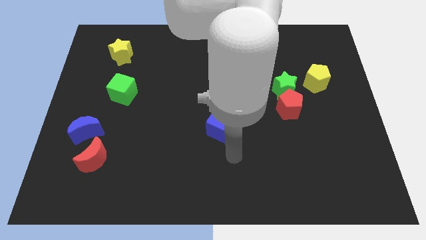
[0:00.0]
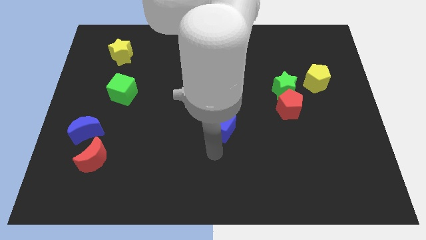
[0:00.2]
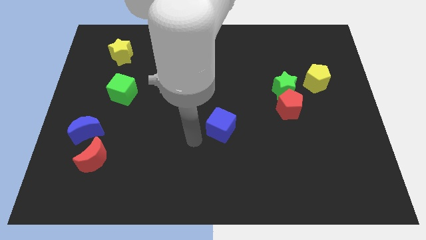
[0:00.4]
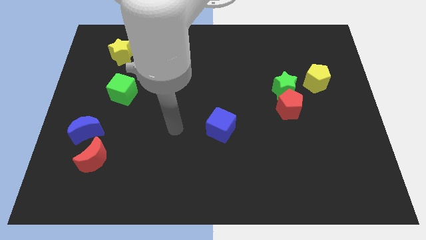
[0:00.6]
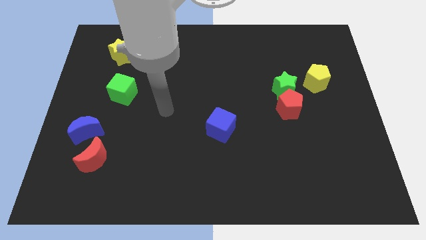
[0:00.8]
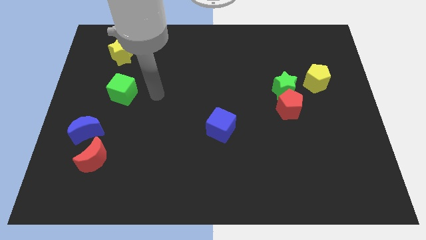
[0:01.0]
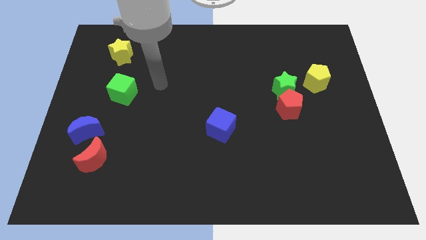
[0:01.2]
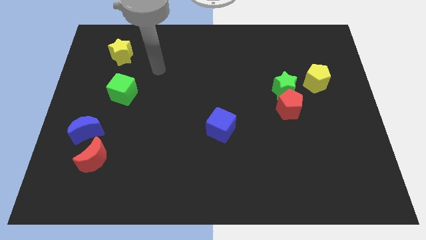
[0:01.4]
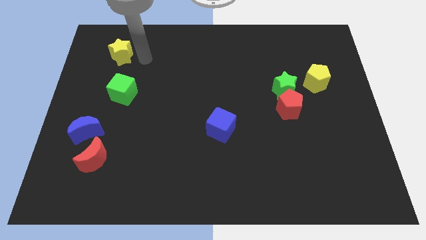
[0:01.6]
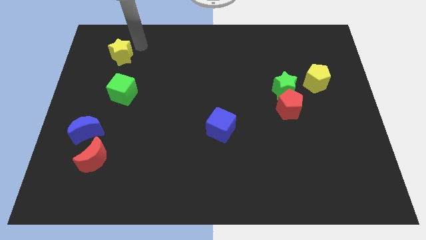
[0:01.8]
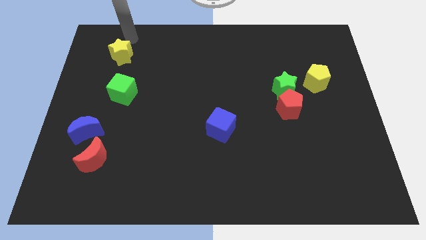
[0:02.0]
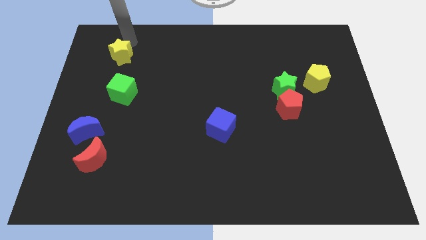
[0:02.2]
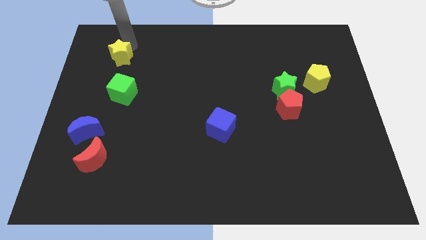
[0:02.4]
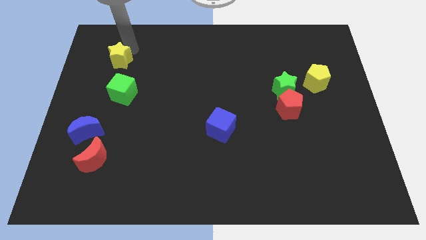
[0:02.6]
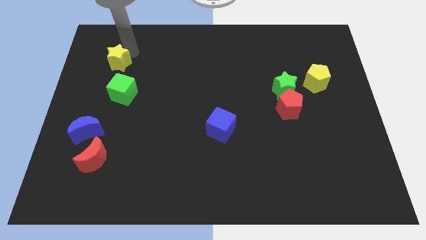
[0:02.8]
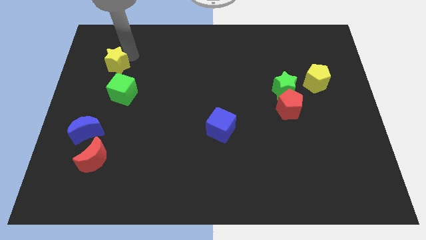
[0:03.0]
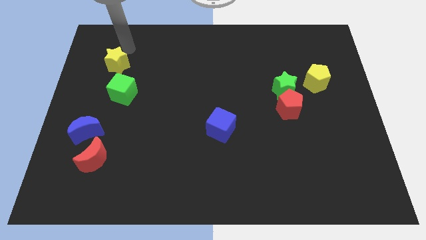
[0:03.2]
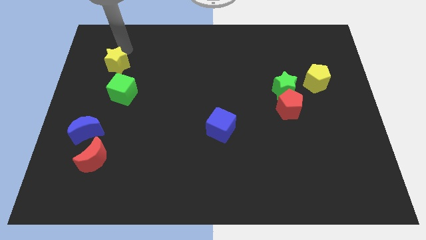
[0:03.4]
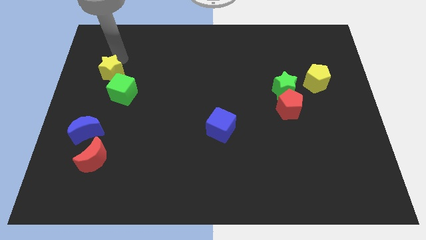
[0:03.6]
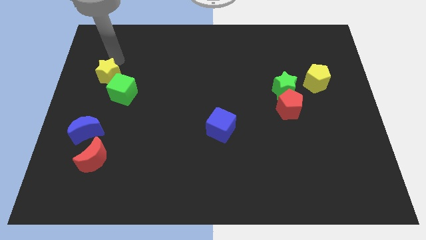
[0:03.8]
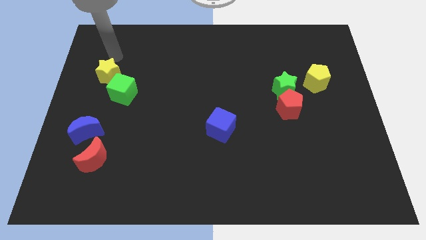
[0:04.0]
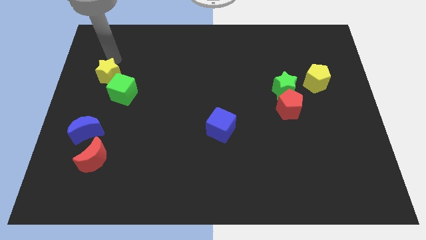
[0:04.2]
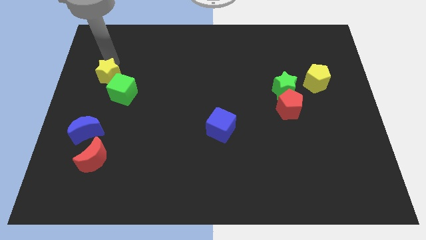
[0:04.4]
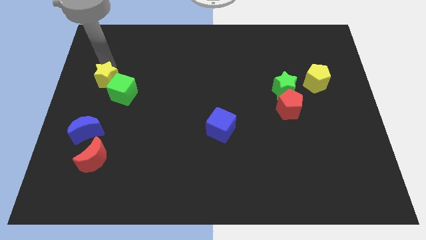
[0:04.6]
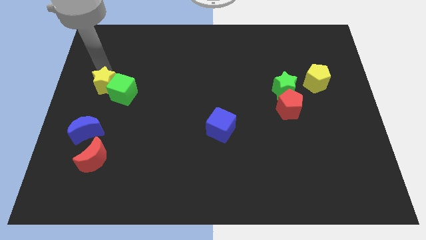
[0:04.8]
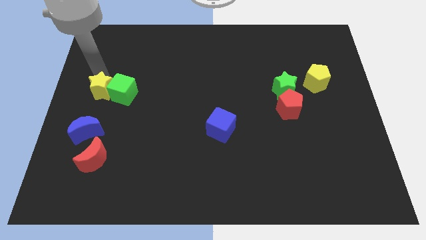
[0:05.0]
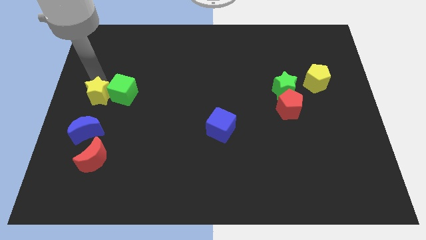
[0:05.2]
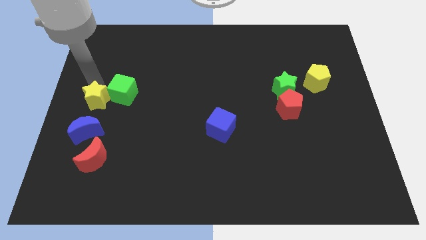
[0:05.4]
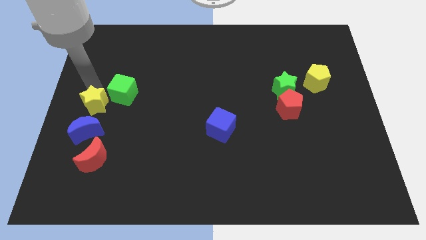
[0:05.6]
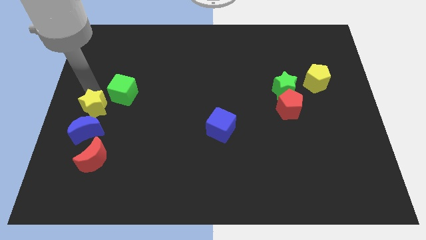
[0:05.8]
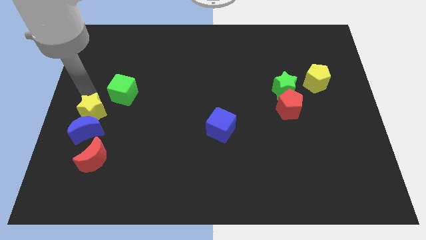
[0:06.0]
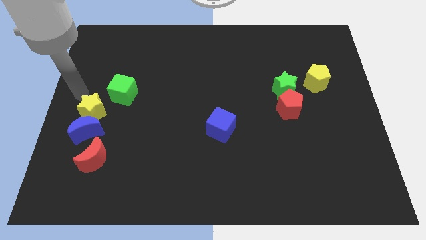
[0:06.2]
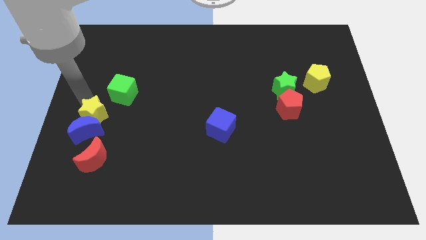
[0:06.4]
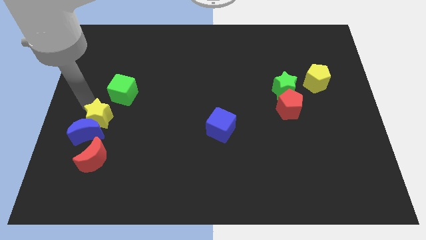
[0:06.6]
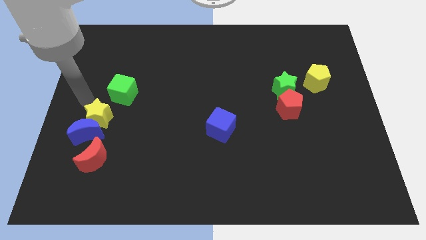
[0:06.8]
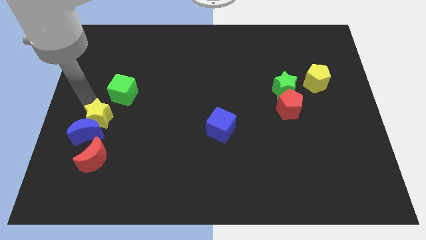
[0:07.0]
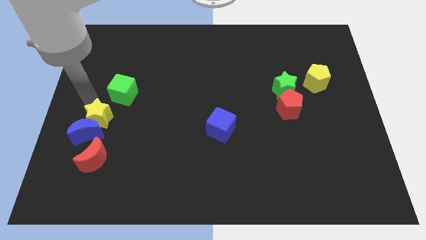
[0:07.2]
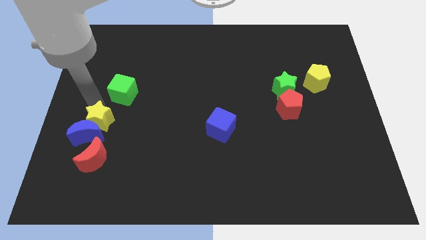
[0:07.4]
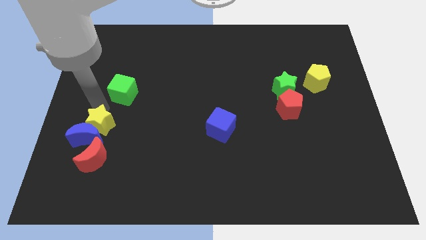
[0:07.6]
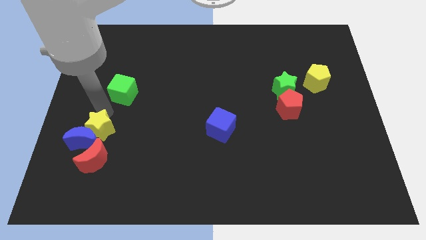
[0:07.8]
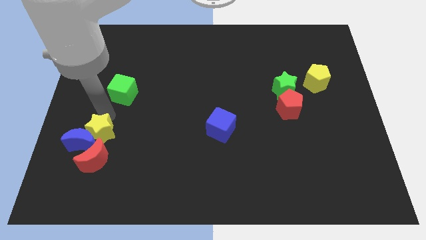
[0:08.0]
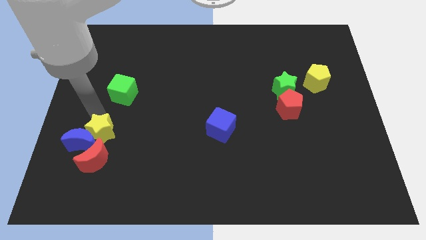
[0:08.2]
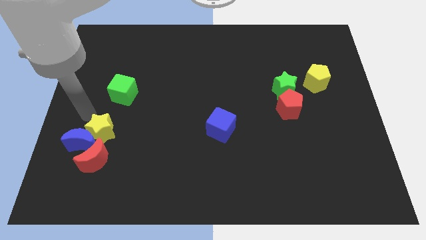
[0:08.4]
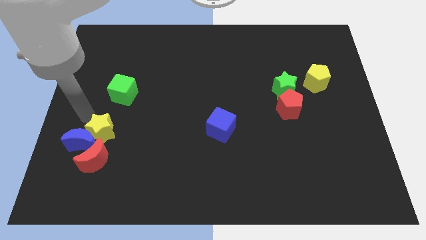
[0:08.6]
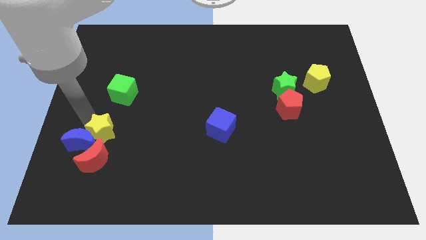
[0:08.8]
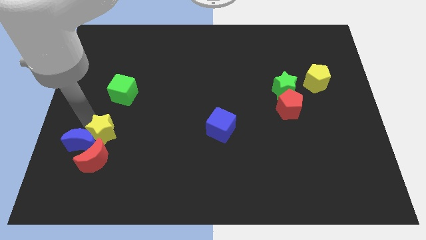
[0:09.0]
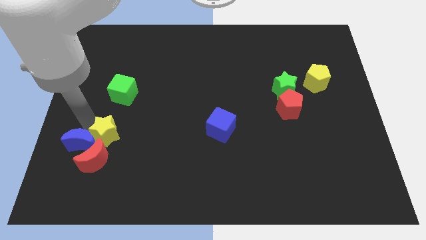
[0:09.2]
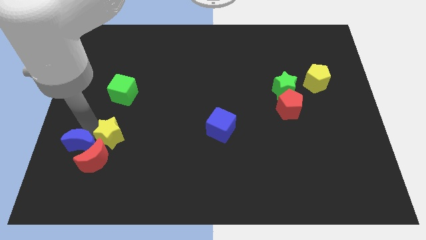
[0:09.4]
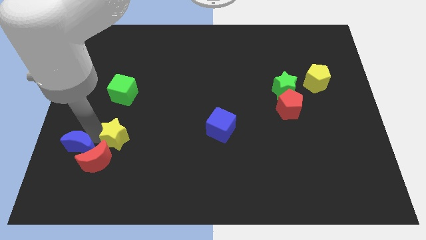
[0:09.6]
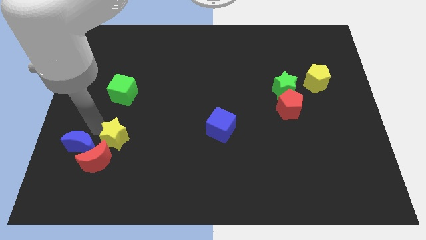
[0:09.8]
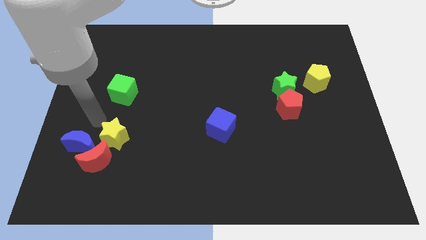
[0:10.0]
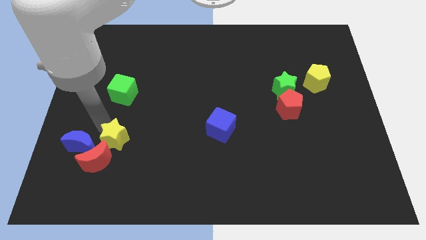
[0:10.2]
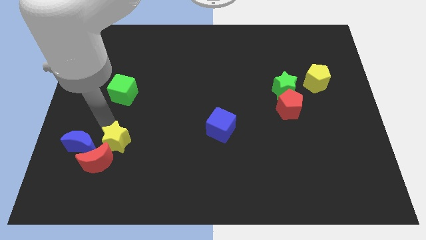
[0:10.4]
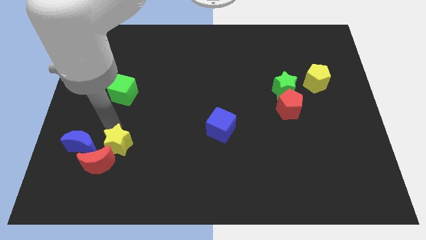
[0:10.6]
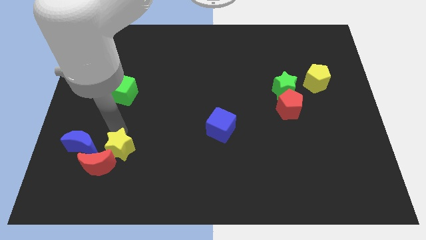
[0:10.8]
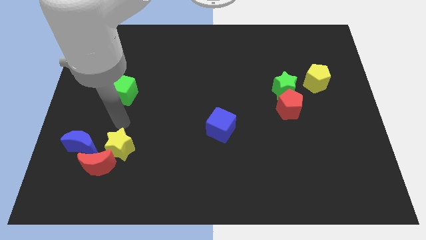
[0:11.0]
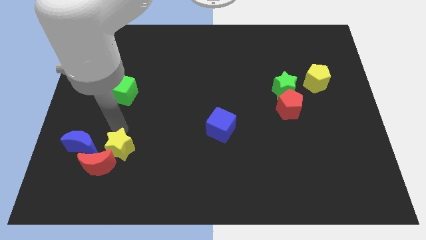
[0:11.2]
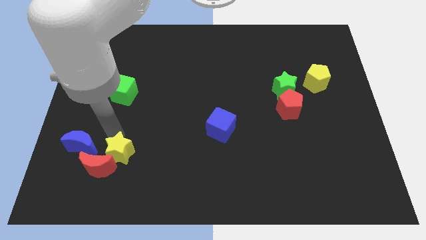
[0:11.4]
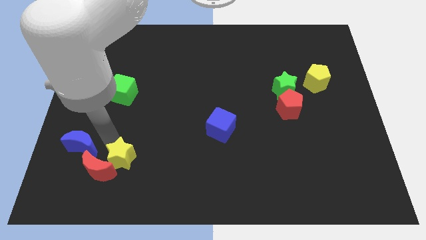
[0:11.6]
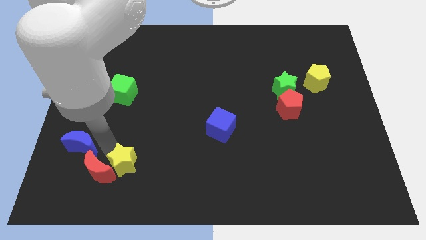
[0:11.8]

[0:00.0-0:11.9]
slide the yellow star diagonally down and to the right of the red moon

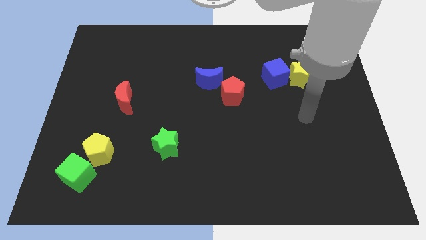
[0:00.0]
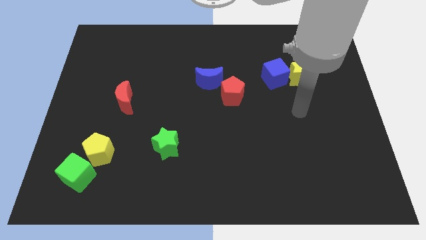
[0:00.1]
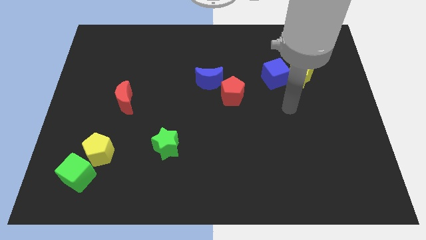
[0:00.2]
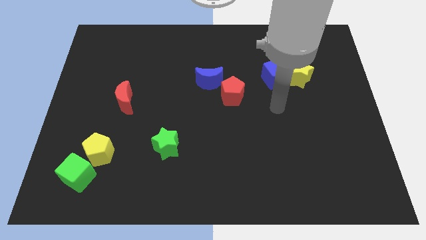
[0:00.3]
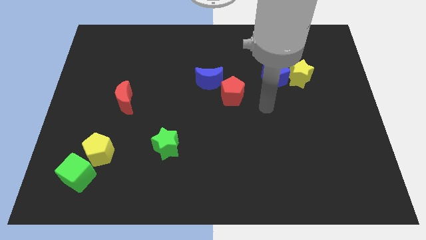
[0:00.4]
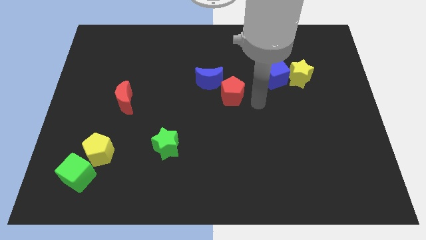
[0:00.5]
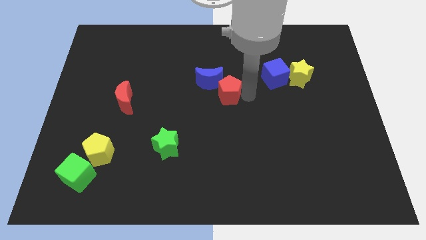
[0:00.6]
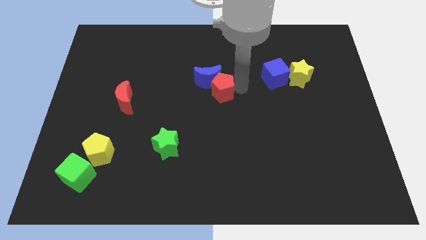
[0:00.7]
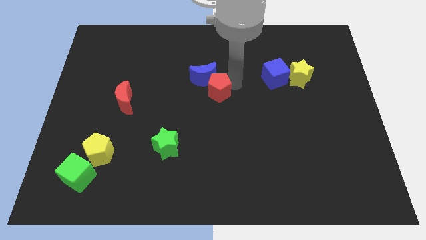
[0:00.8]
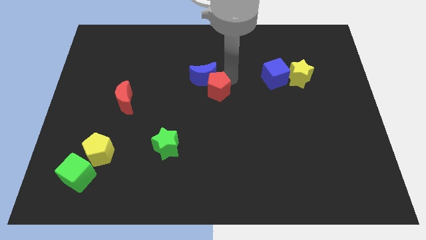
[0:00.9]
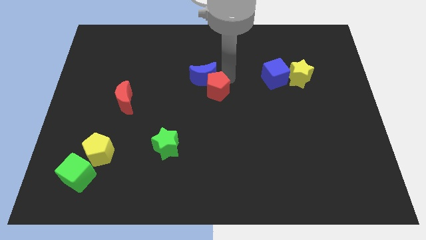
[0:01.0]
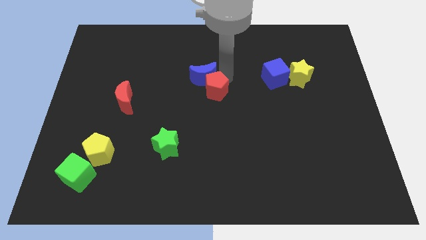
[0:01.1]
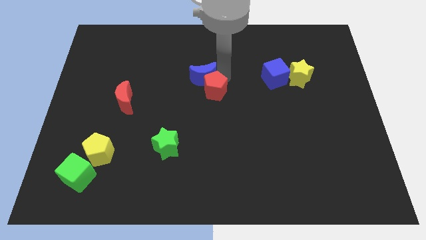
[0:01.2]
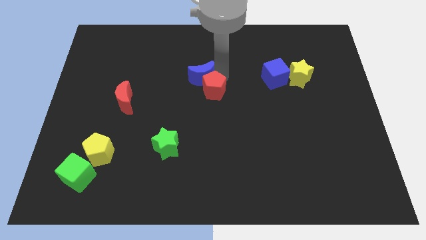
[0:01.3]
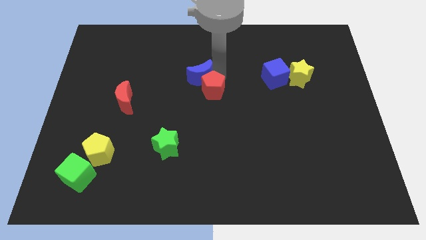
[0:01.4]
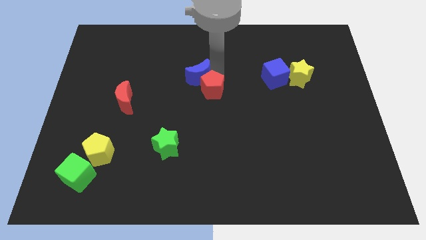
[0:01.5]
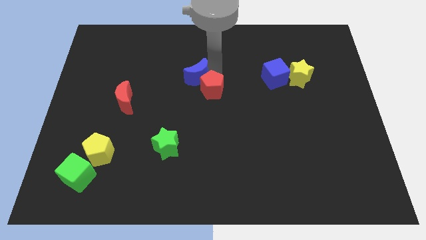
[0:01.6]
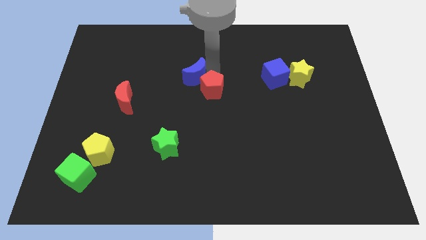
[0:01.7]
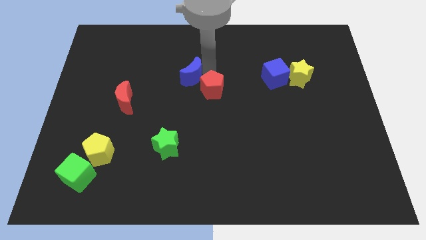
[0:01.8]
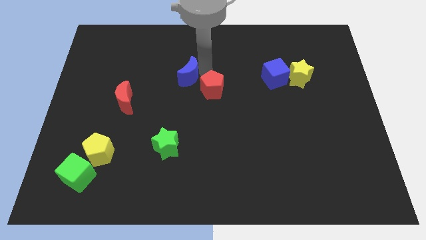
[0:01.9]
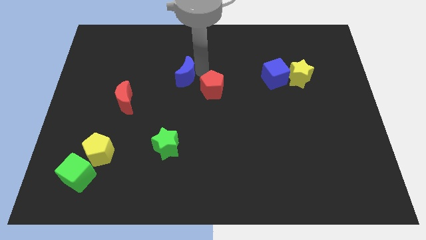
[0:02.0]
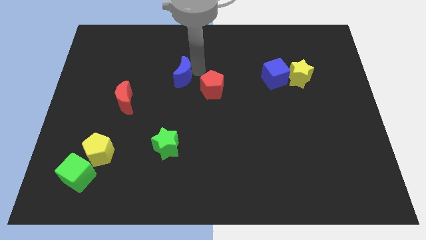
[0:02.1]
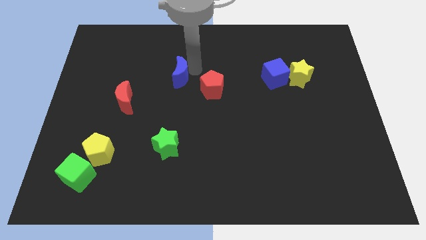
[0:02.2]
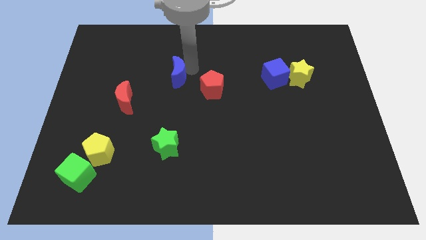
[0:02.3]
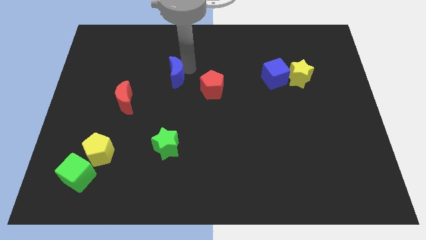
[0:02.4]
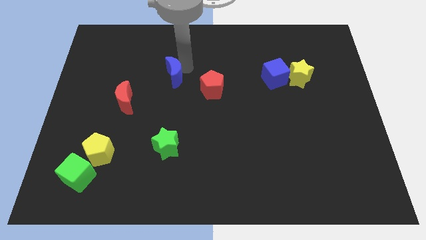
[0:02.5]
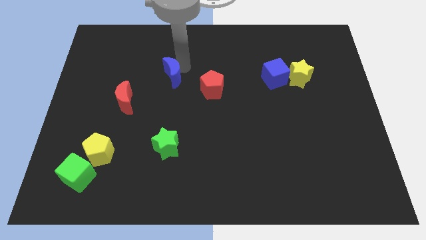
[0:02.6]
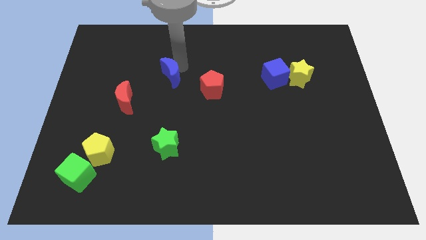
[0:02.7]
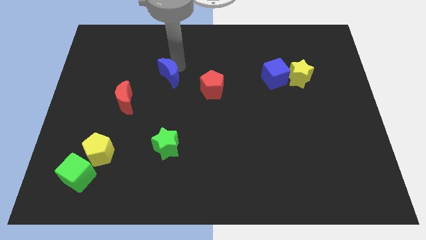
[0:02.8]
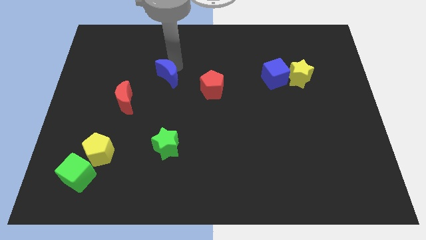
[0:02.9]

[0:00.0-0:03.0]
move the blue moon to the top right of the red moon
